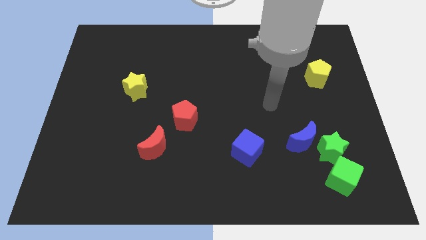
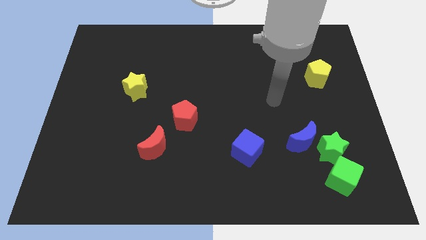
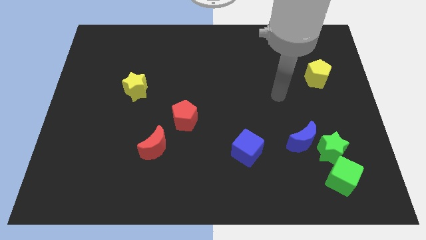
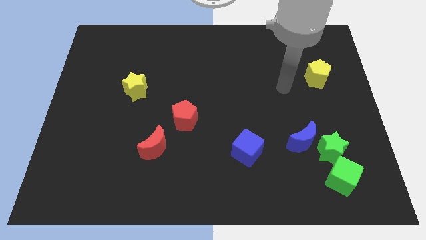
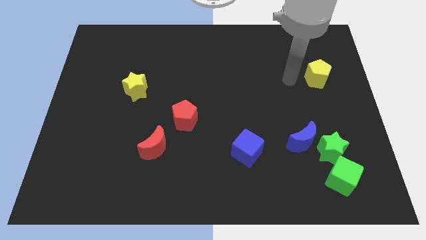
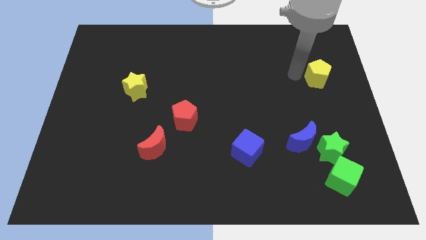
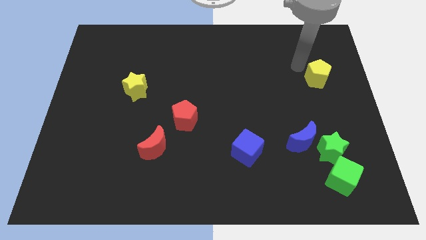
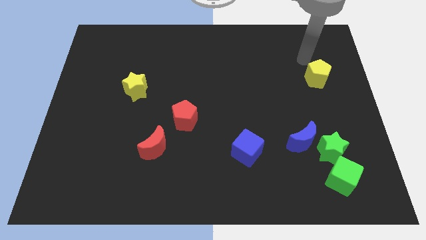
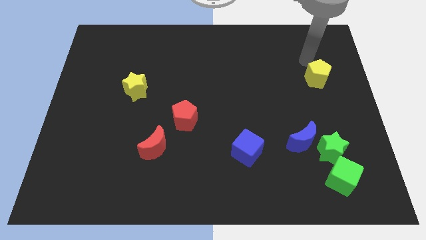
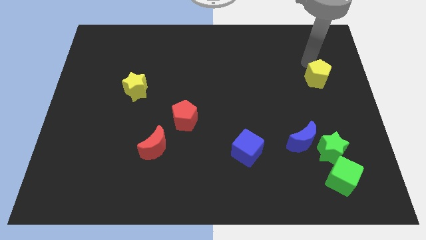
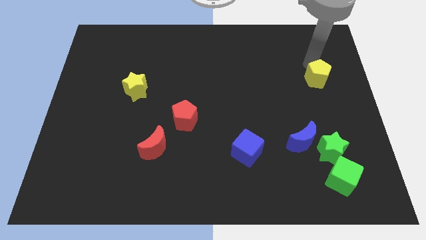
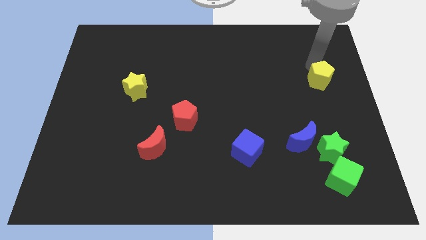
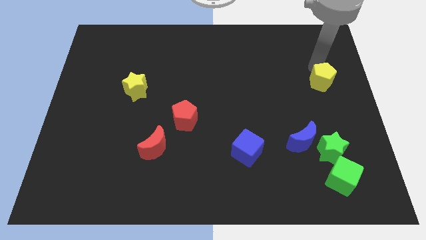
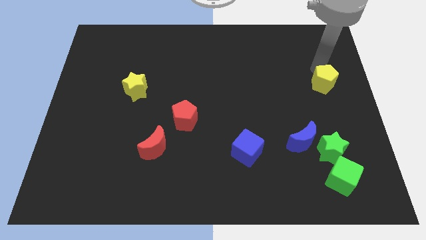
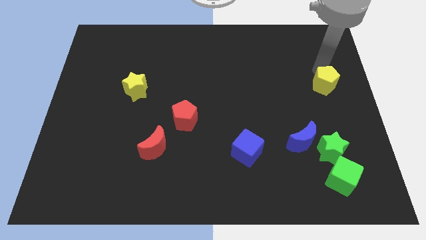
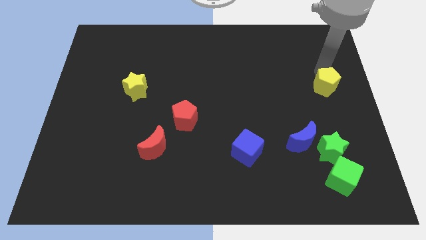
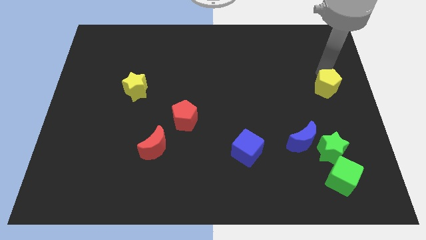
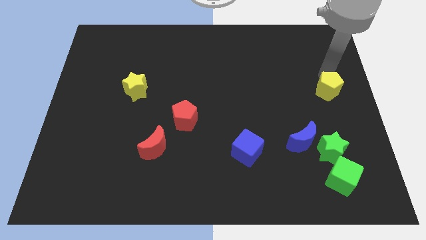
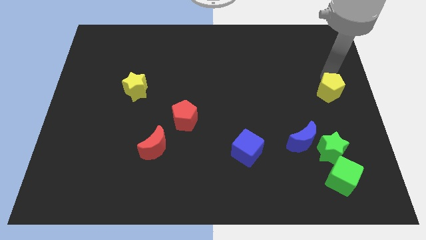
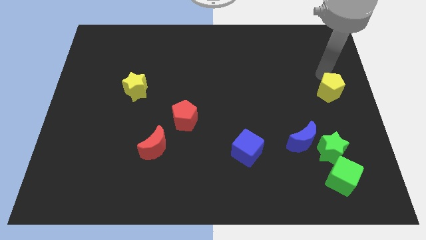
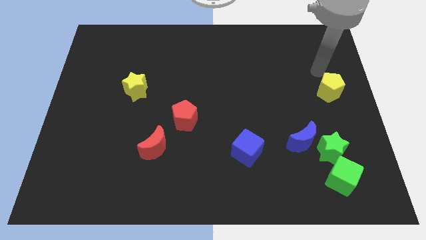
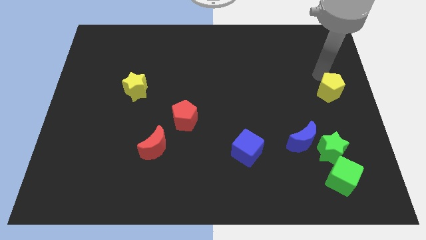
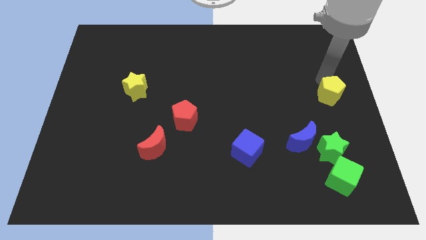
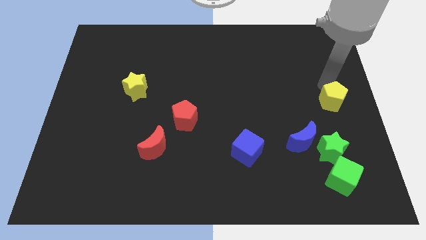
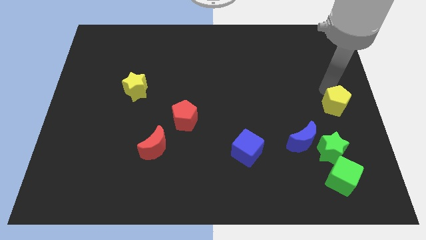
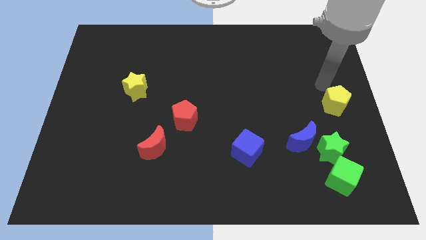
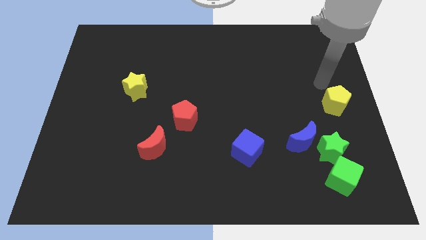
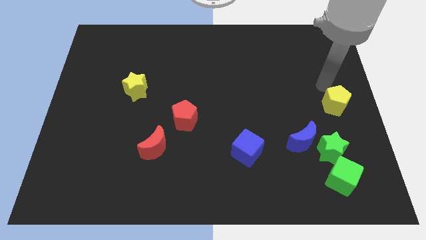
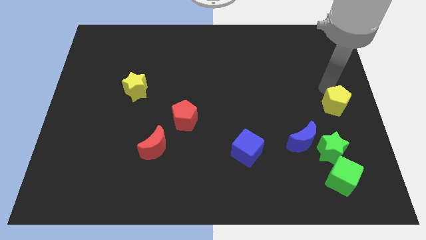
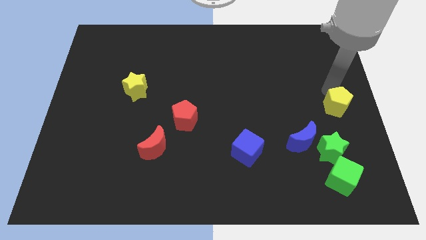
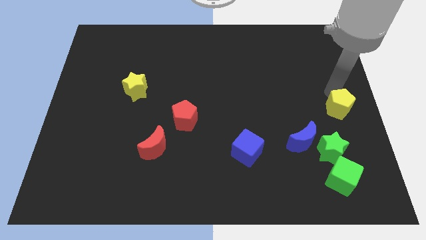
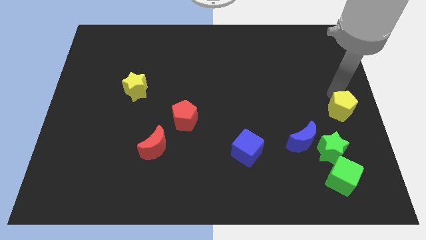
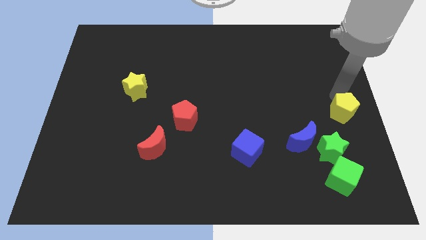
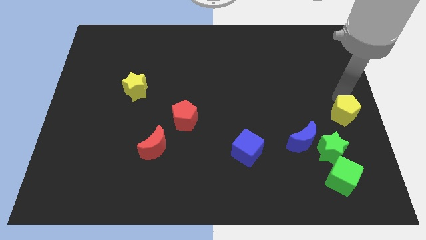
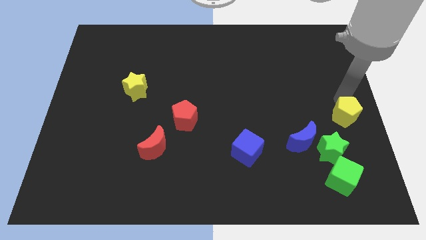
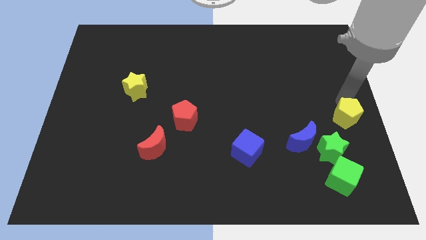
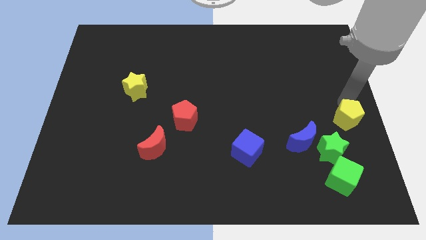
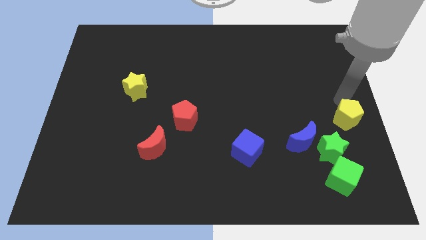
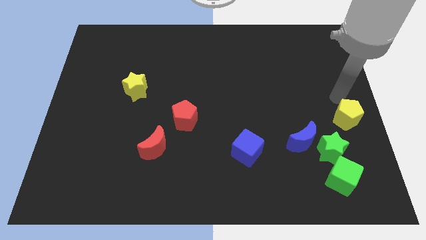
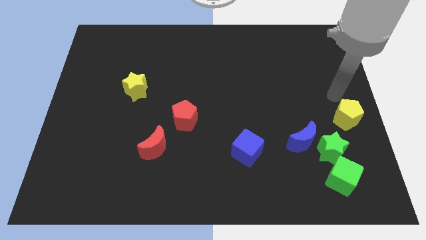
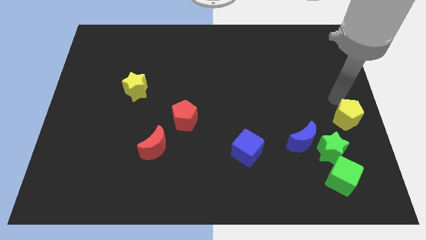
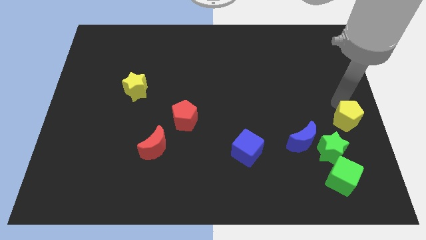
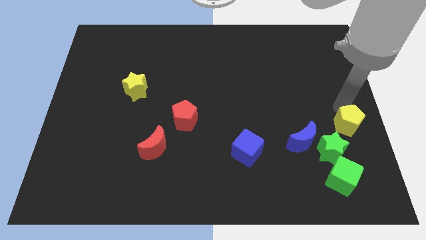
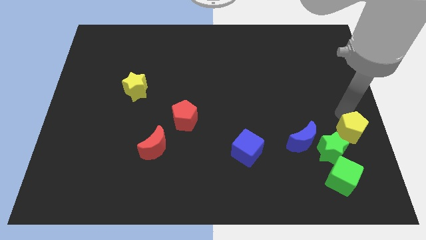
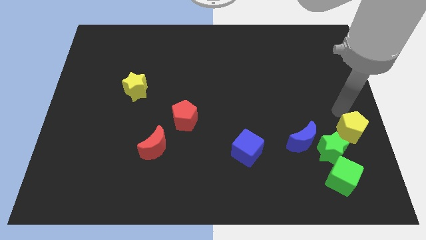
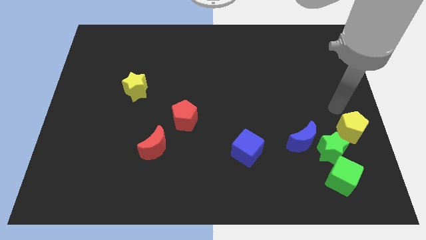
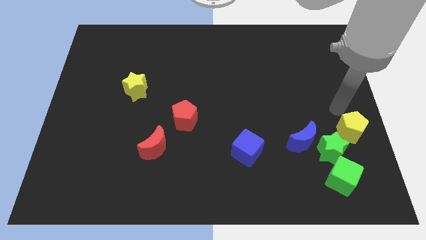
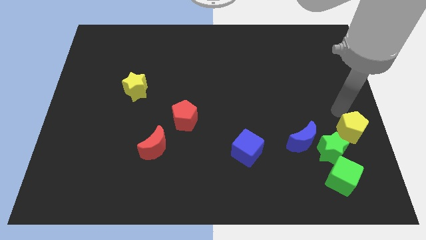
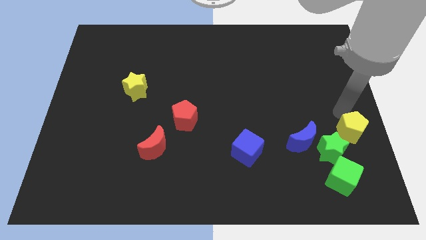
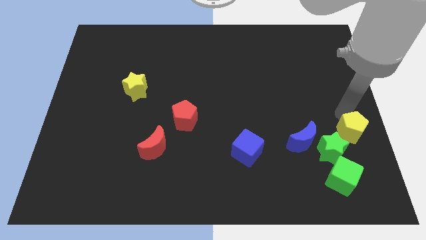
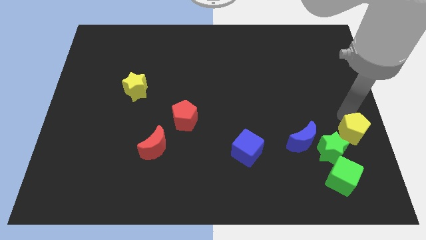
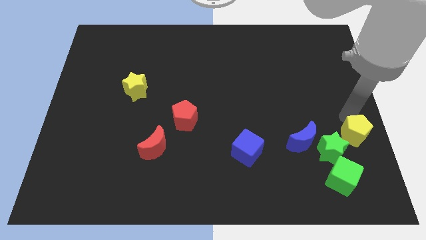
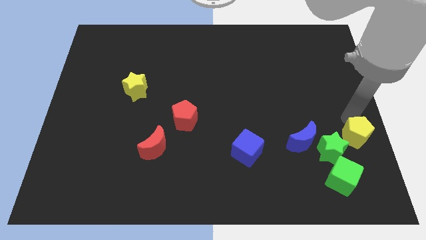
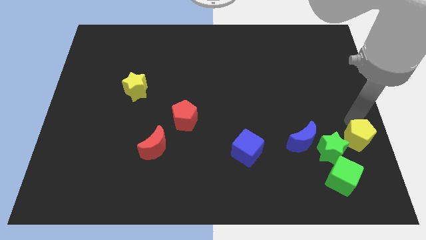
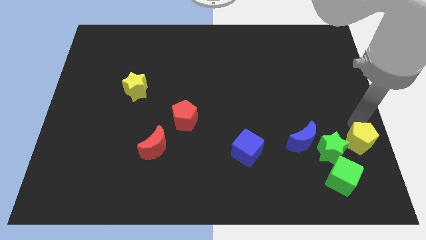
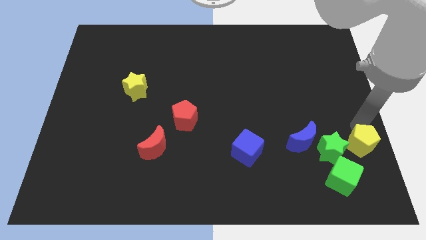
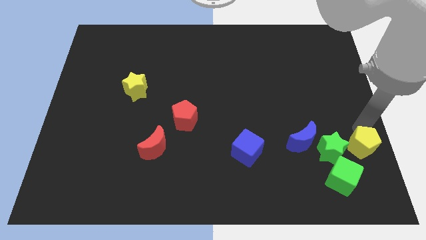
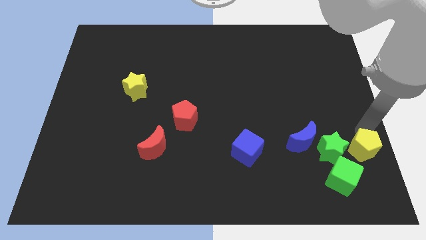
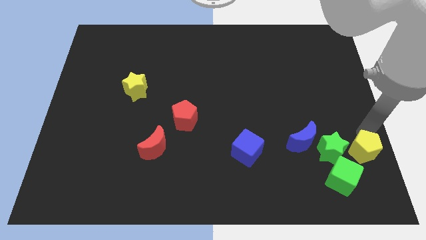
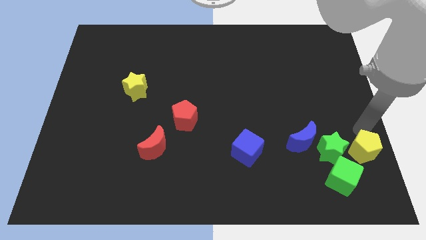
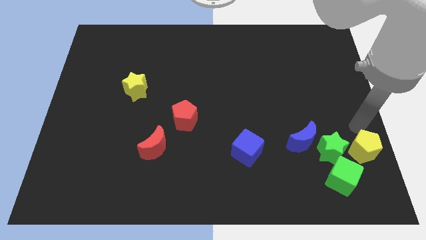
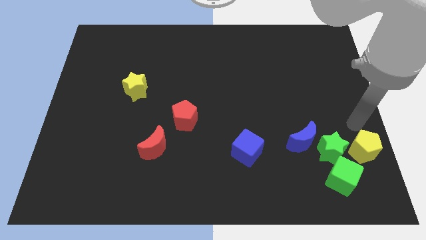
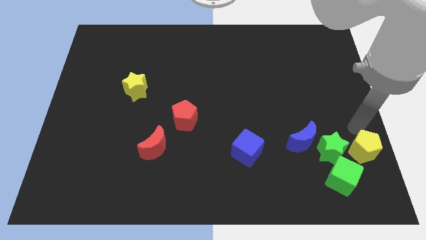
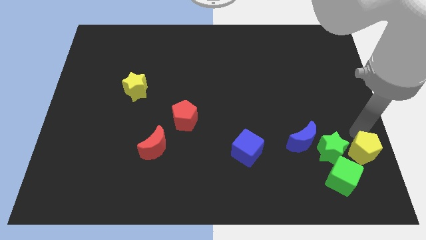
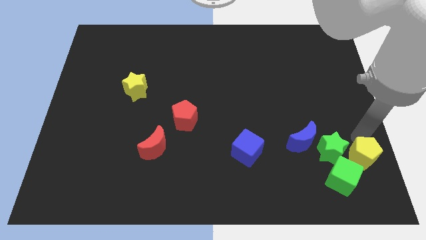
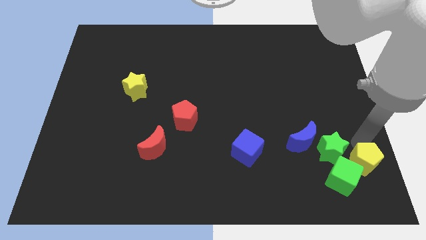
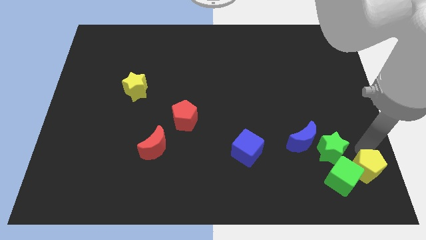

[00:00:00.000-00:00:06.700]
move the yellow pentagon close to the green cube

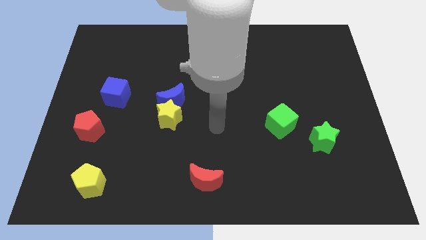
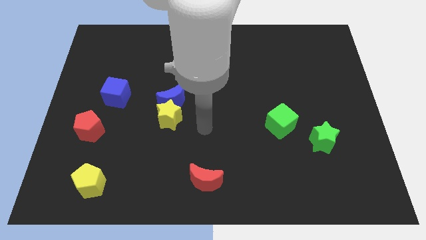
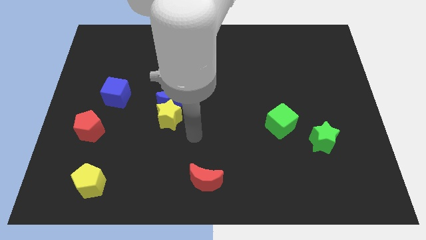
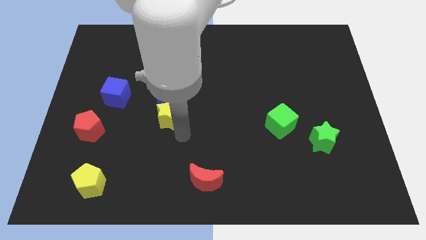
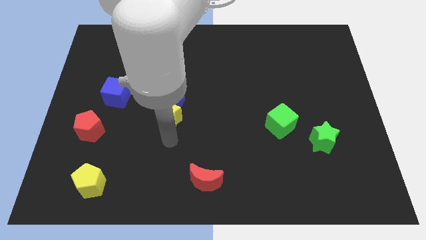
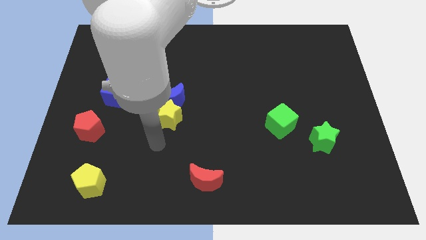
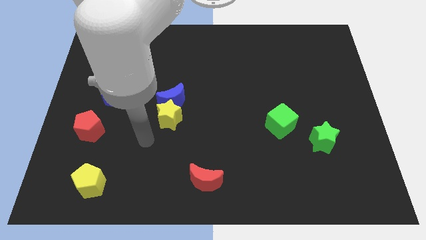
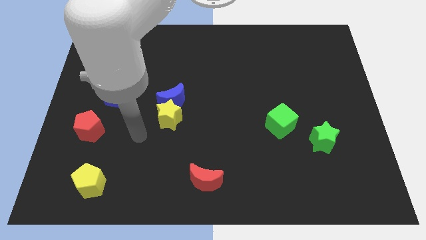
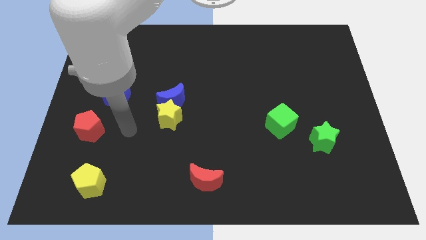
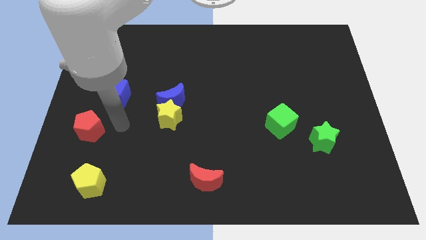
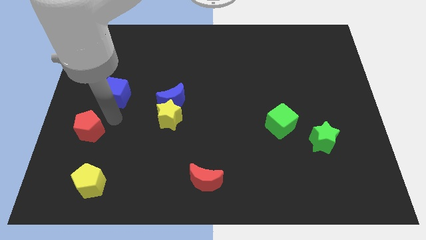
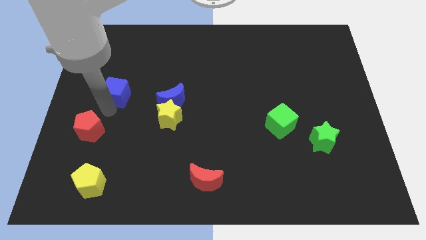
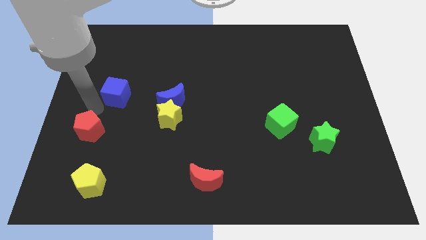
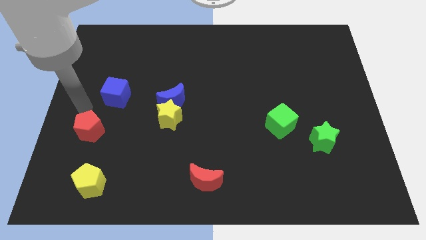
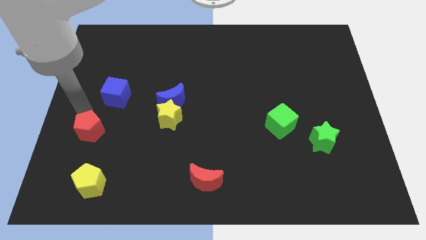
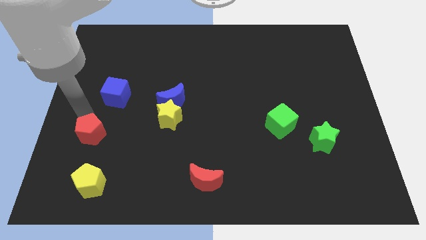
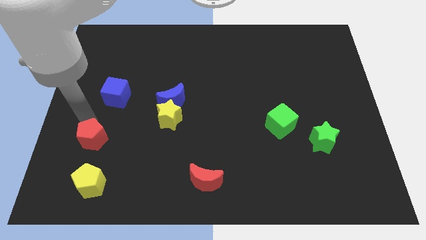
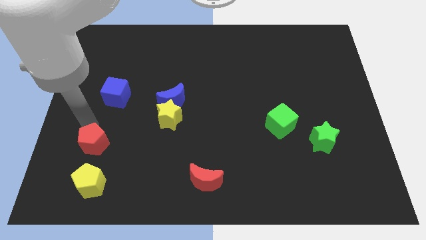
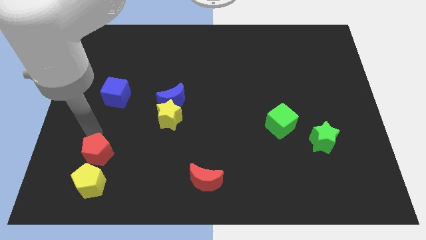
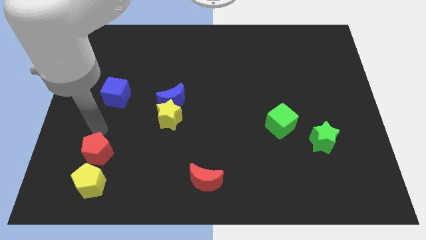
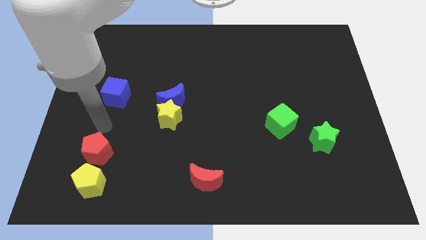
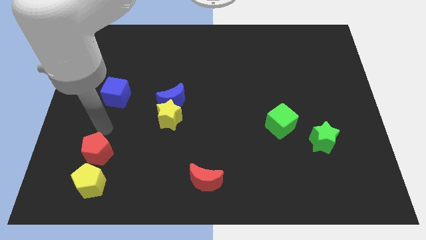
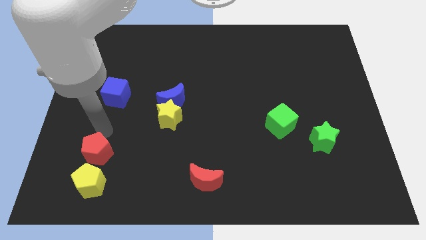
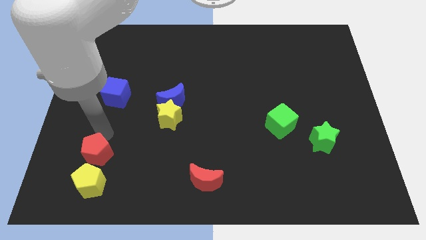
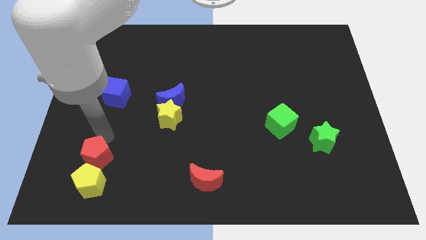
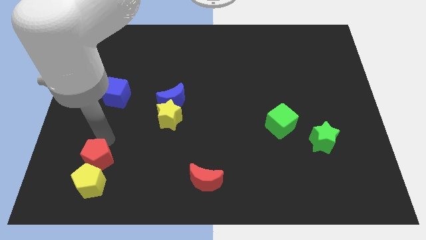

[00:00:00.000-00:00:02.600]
push the red pentagon close to the yellow pentagon
